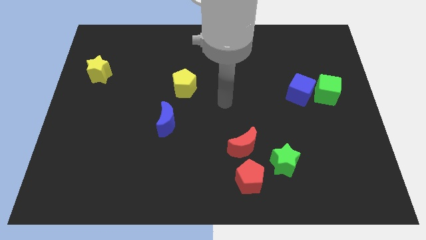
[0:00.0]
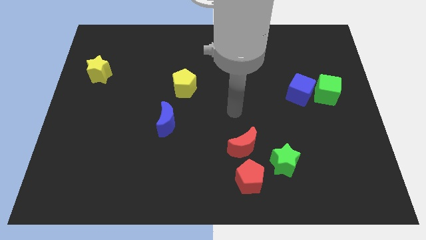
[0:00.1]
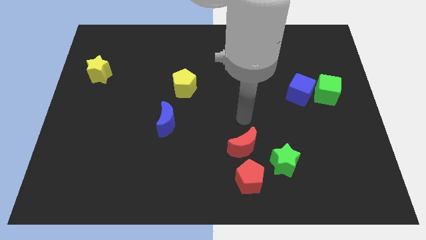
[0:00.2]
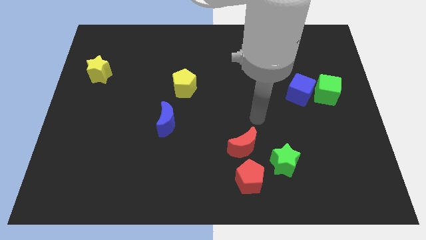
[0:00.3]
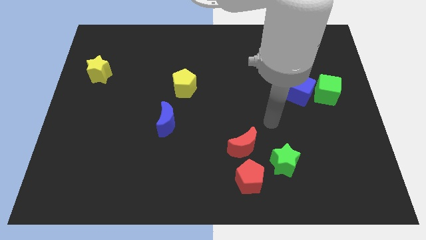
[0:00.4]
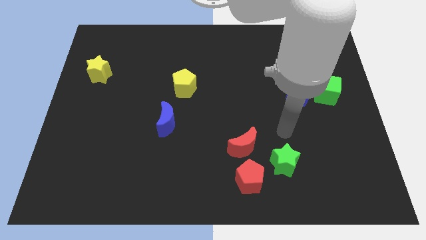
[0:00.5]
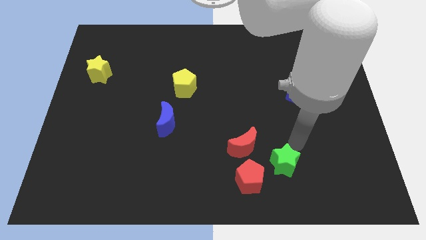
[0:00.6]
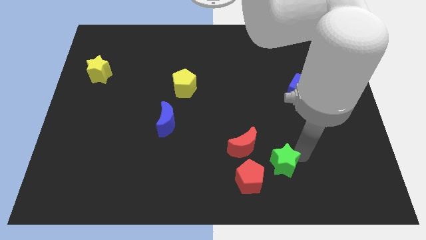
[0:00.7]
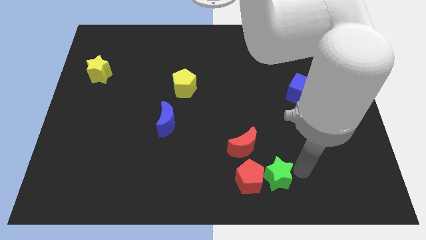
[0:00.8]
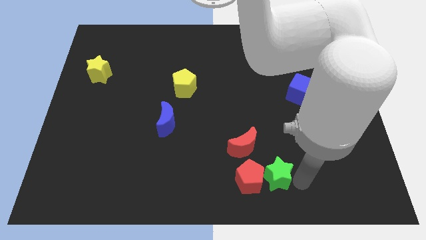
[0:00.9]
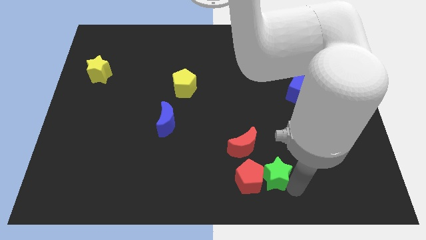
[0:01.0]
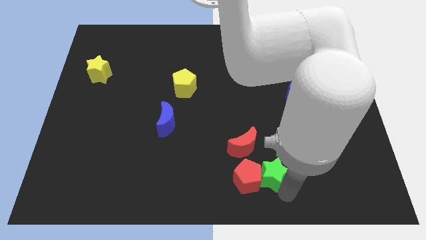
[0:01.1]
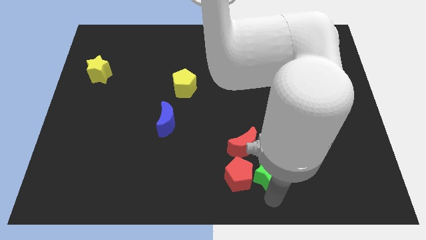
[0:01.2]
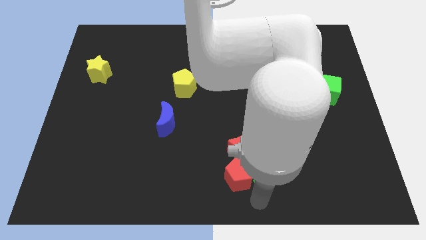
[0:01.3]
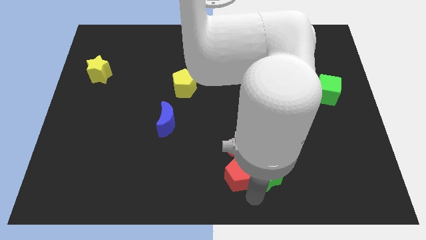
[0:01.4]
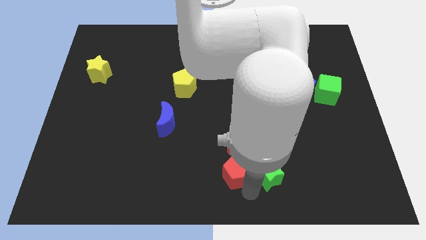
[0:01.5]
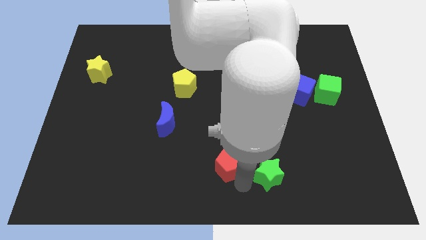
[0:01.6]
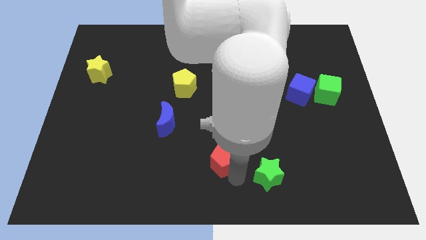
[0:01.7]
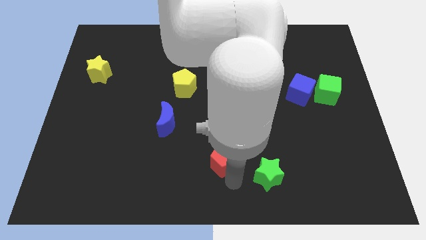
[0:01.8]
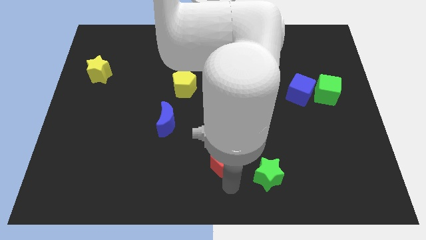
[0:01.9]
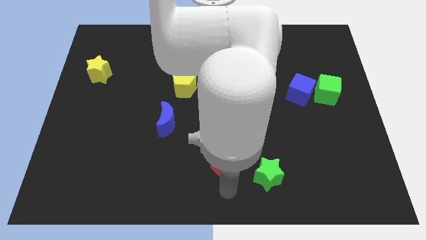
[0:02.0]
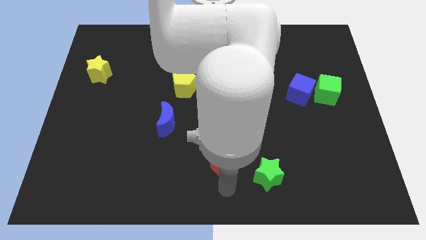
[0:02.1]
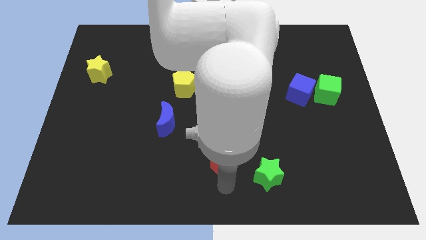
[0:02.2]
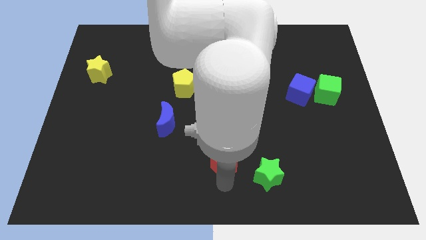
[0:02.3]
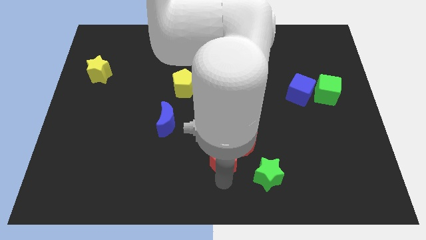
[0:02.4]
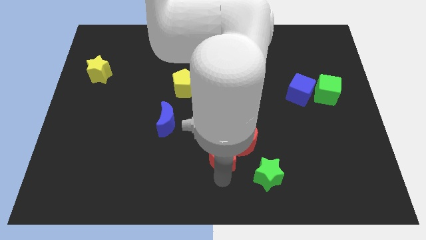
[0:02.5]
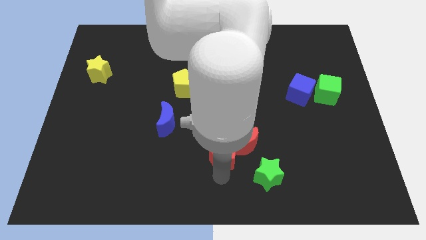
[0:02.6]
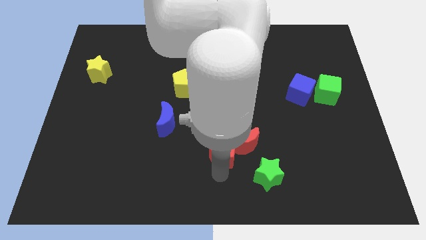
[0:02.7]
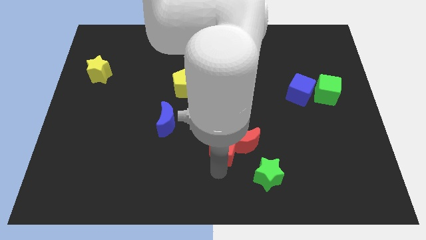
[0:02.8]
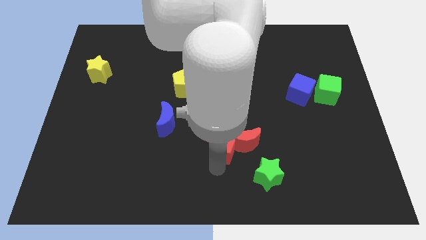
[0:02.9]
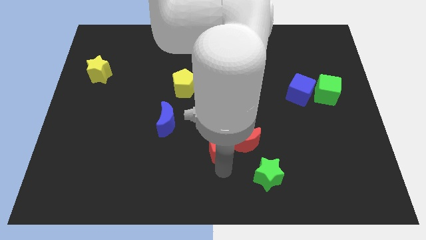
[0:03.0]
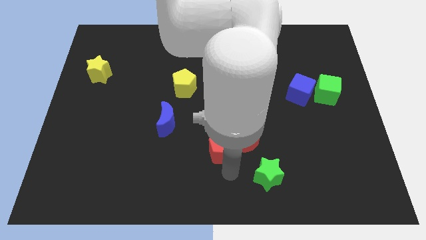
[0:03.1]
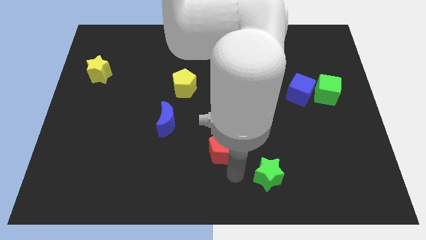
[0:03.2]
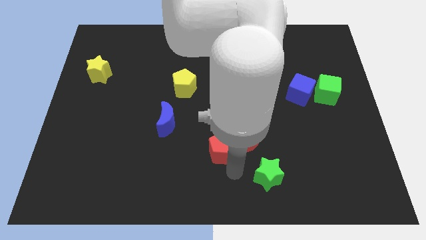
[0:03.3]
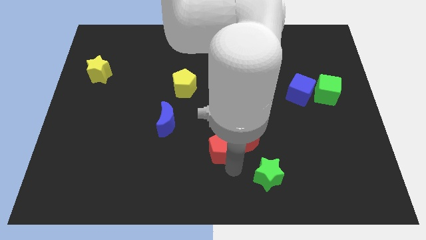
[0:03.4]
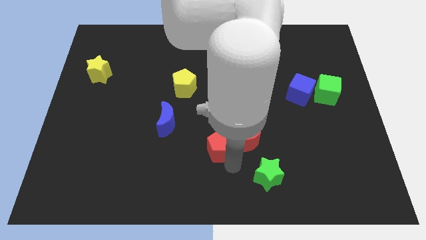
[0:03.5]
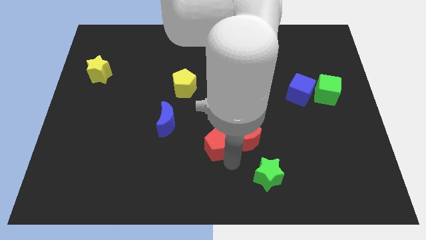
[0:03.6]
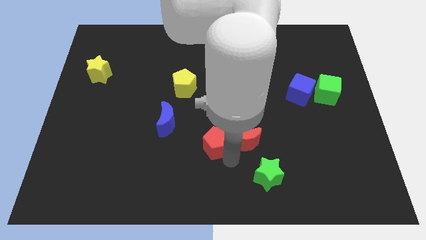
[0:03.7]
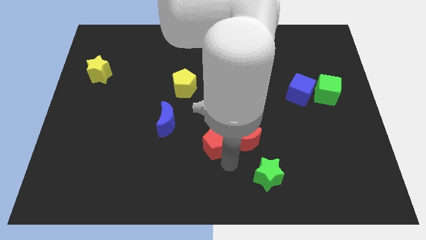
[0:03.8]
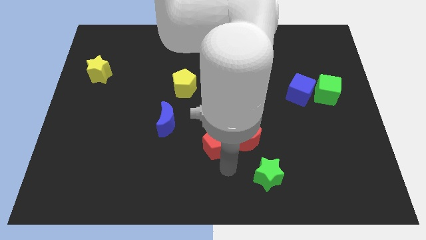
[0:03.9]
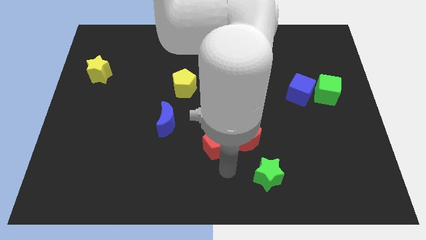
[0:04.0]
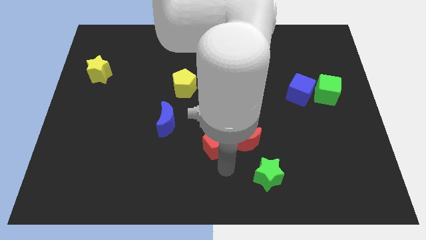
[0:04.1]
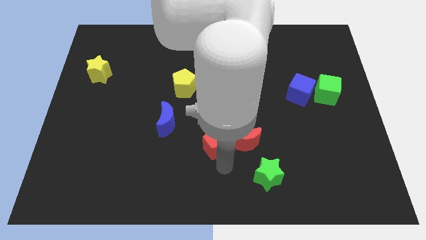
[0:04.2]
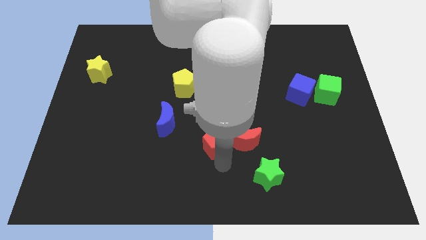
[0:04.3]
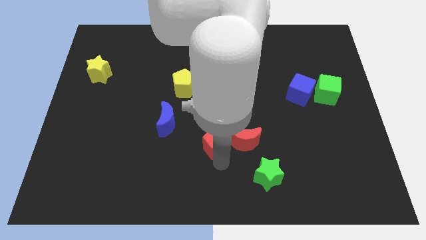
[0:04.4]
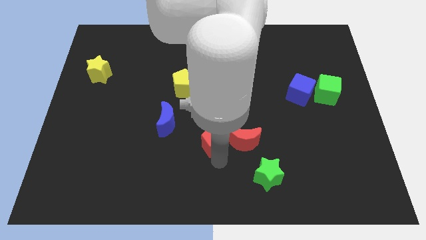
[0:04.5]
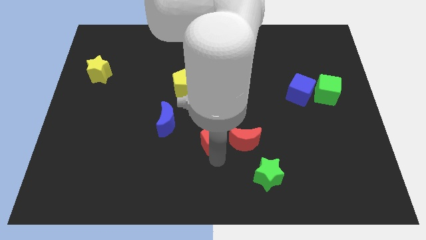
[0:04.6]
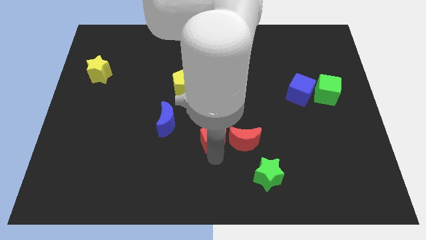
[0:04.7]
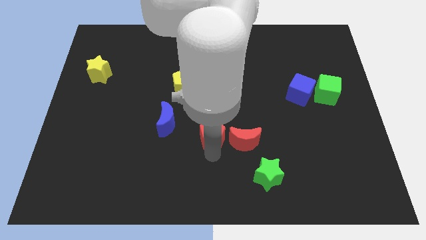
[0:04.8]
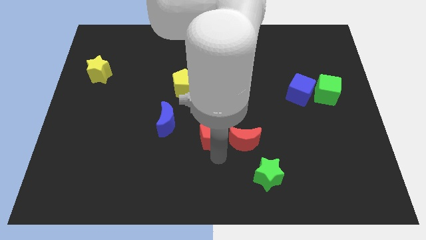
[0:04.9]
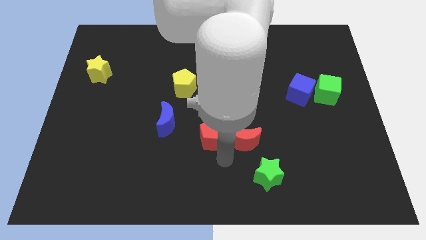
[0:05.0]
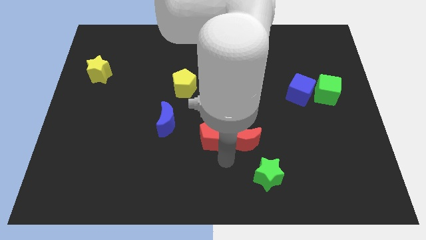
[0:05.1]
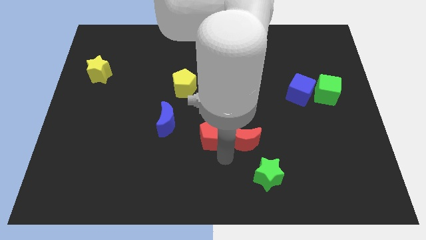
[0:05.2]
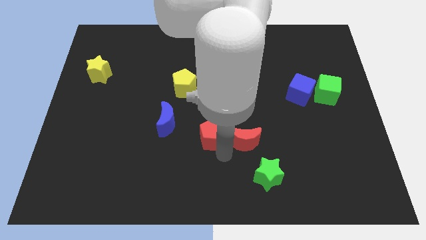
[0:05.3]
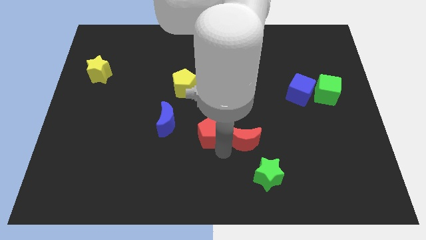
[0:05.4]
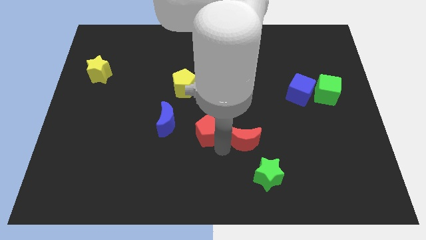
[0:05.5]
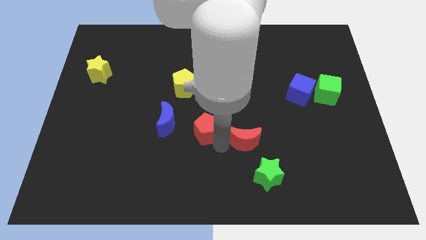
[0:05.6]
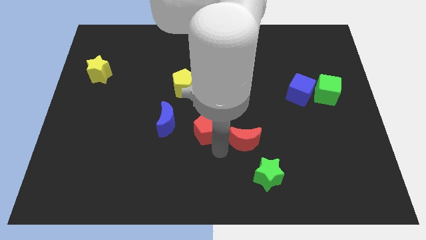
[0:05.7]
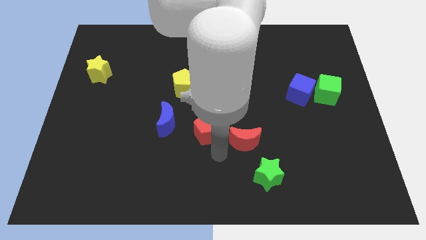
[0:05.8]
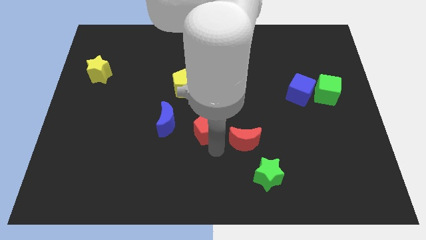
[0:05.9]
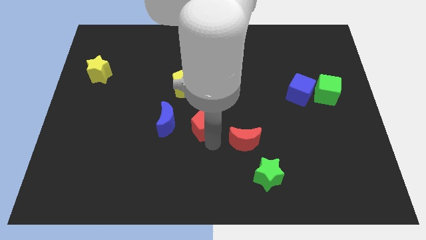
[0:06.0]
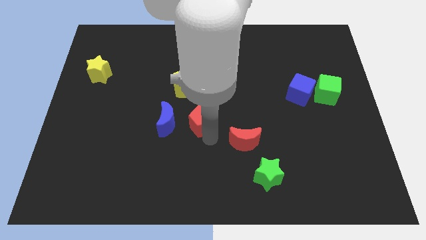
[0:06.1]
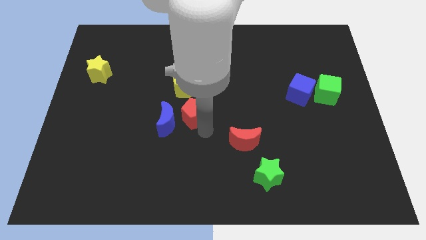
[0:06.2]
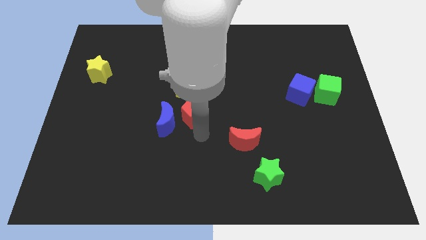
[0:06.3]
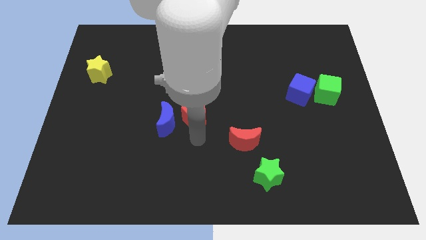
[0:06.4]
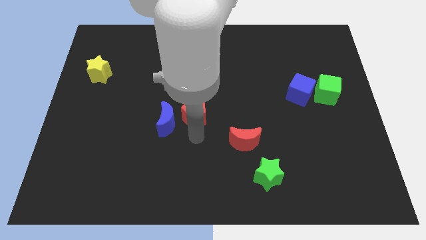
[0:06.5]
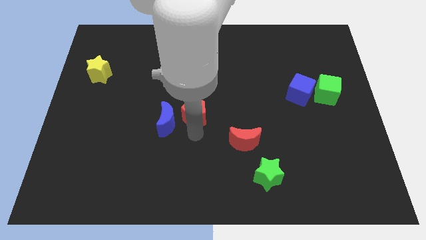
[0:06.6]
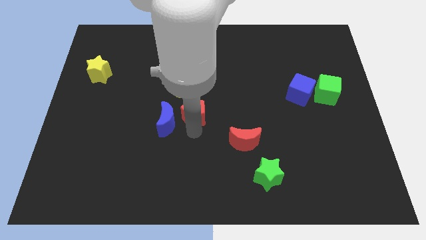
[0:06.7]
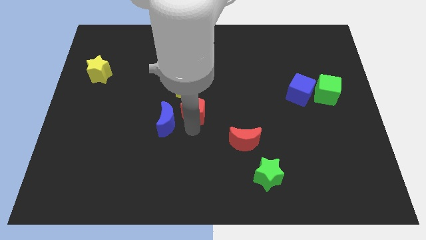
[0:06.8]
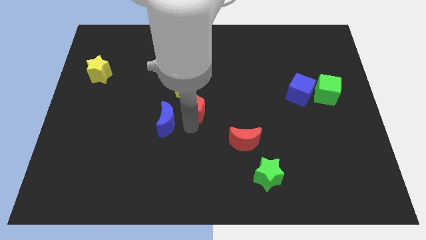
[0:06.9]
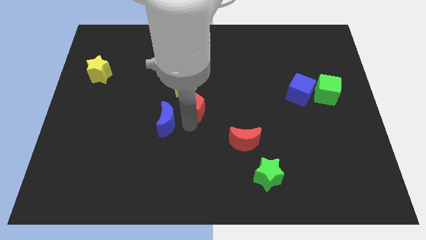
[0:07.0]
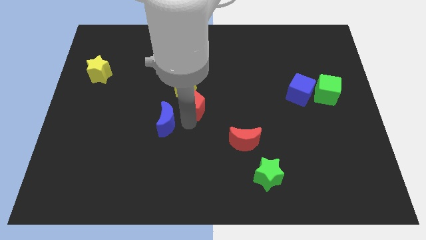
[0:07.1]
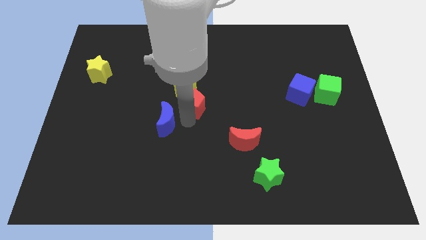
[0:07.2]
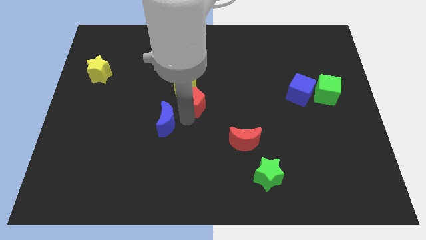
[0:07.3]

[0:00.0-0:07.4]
slide the red pentagon to the yellow pentagon

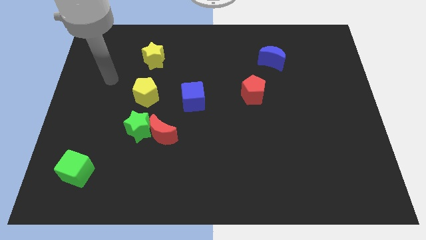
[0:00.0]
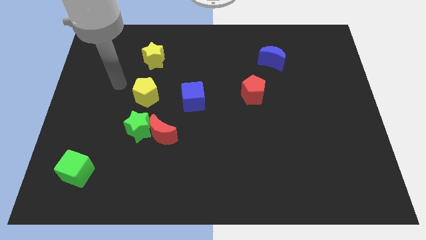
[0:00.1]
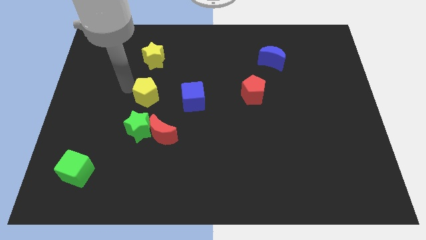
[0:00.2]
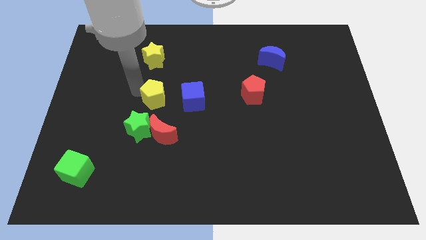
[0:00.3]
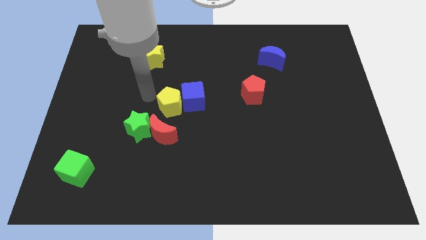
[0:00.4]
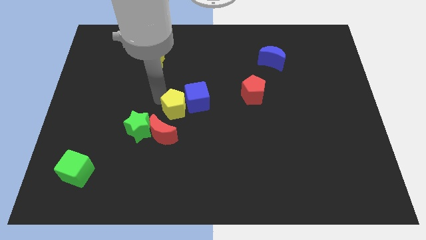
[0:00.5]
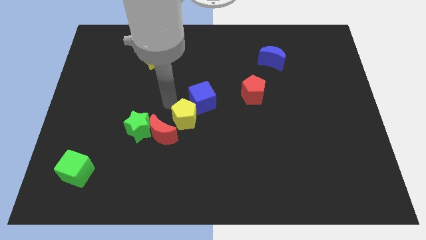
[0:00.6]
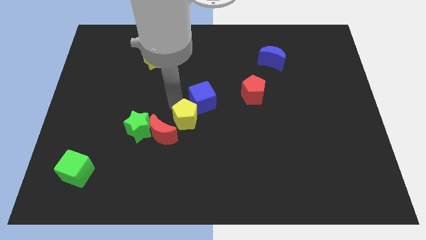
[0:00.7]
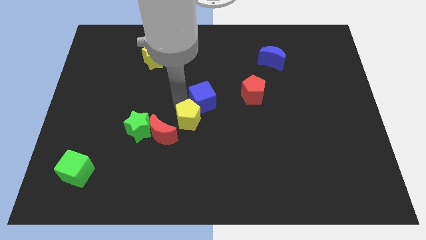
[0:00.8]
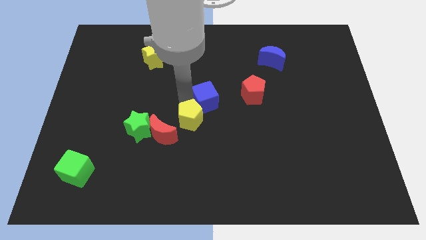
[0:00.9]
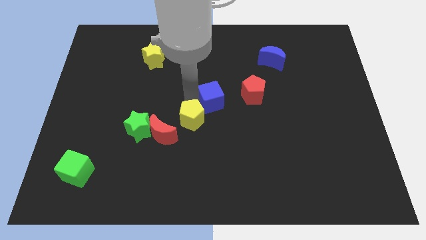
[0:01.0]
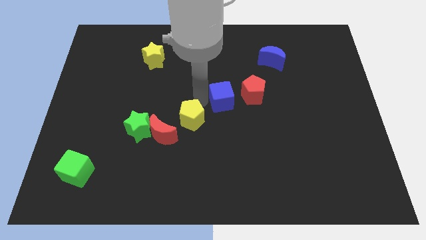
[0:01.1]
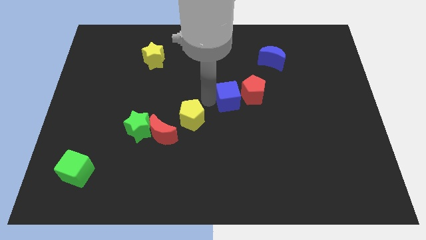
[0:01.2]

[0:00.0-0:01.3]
slide the blue cube close to the red pentagon
